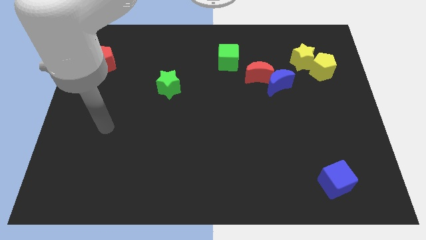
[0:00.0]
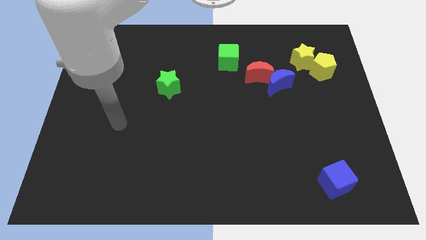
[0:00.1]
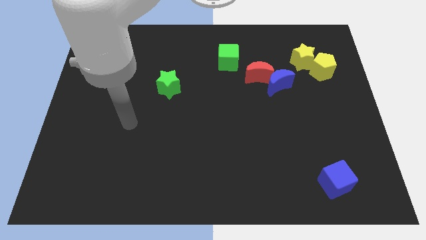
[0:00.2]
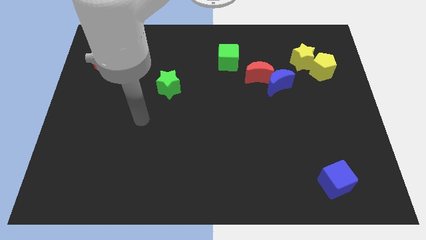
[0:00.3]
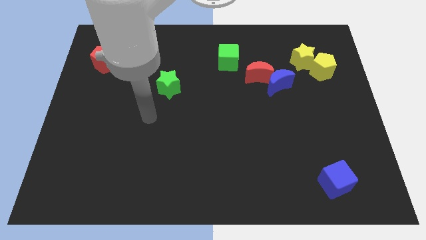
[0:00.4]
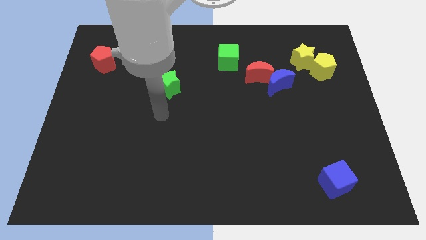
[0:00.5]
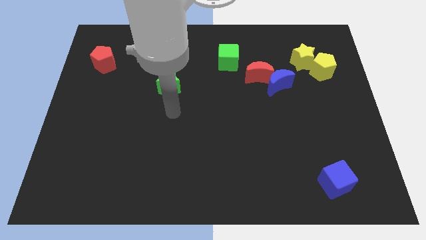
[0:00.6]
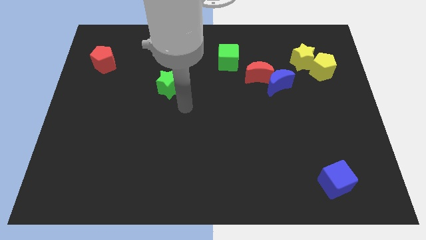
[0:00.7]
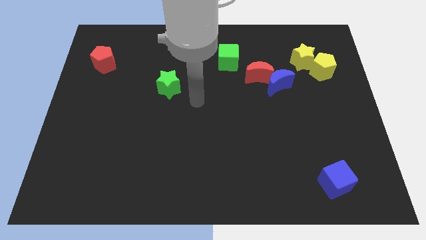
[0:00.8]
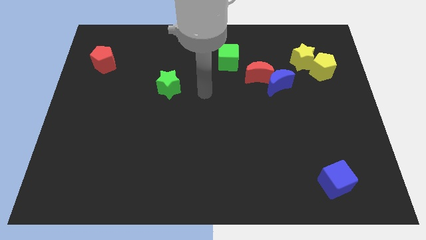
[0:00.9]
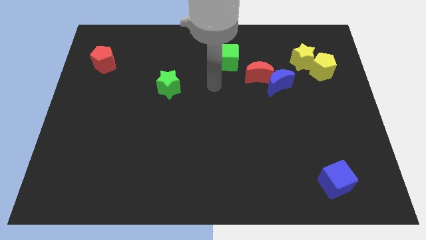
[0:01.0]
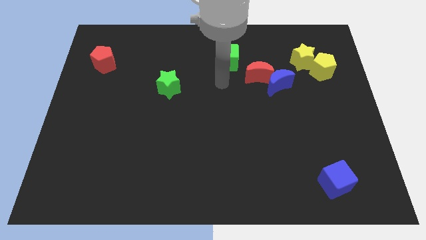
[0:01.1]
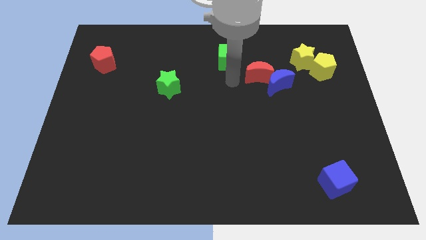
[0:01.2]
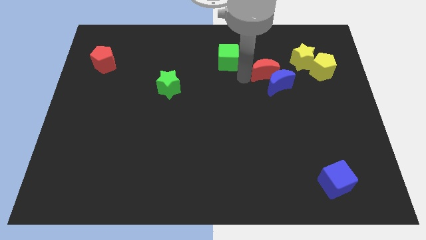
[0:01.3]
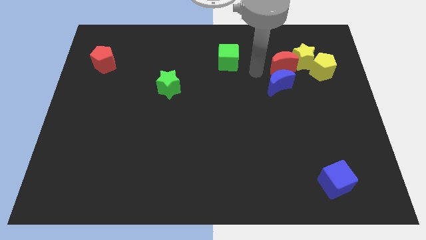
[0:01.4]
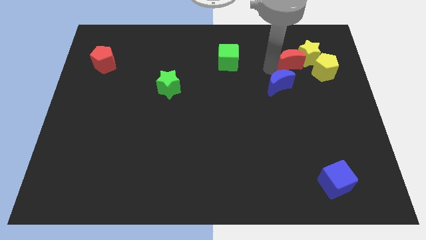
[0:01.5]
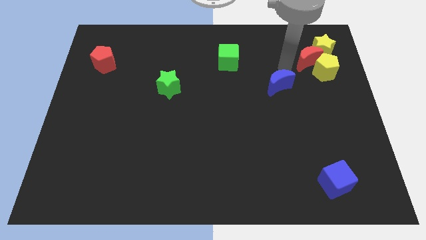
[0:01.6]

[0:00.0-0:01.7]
pull the blue moon apart from the red moon

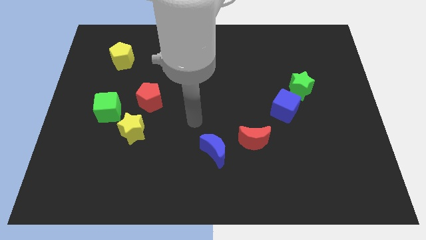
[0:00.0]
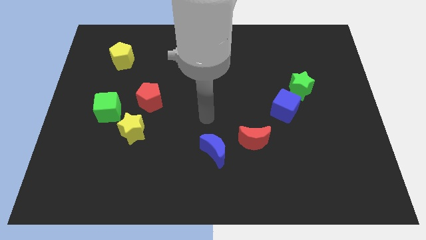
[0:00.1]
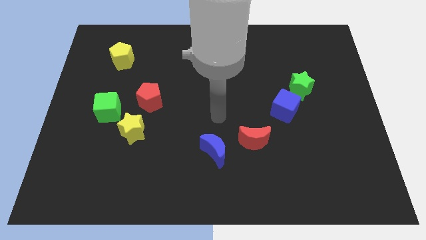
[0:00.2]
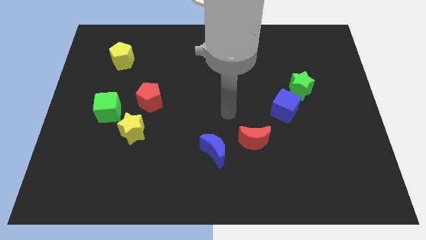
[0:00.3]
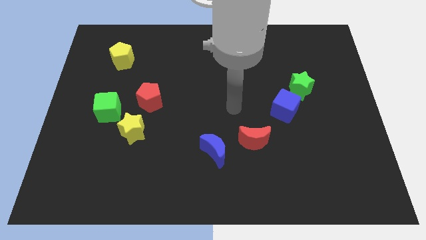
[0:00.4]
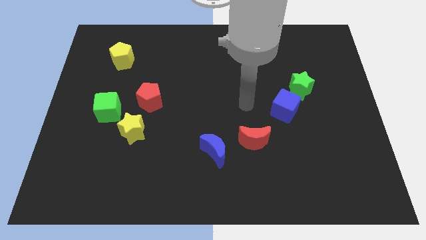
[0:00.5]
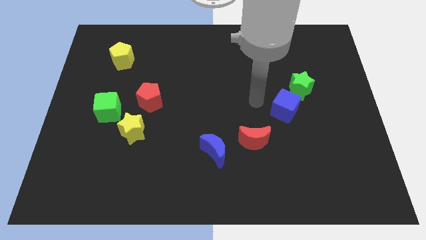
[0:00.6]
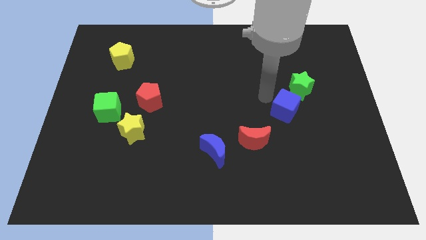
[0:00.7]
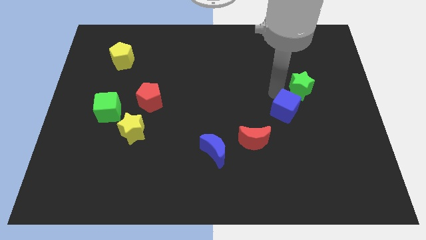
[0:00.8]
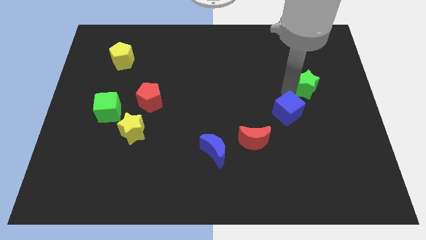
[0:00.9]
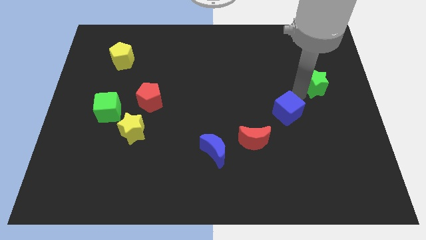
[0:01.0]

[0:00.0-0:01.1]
move the blue cube away from the green star

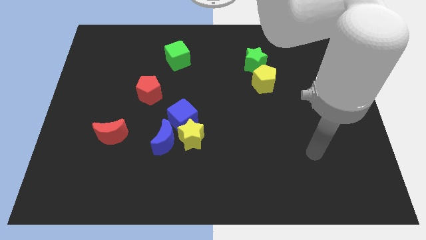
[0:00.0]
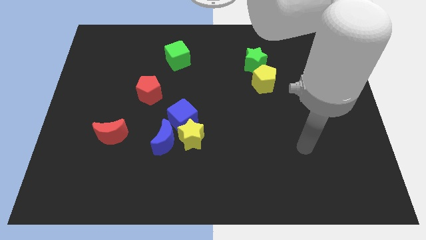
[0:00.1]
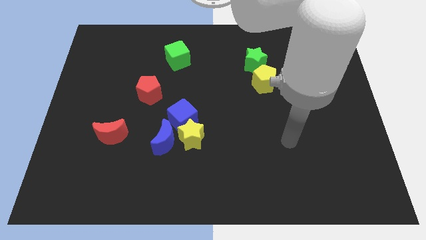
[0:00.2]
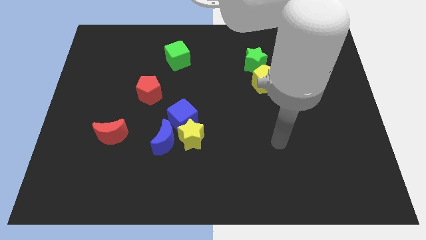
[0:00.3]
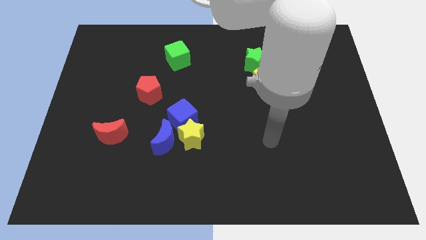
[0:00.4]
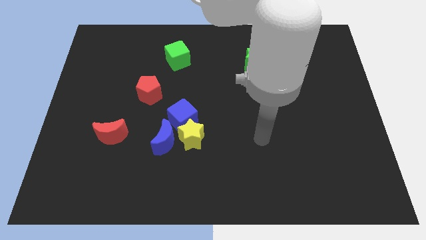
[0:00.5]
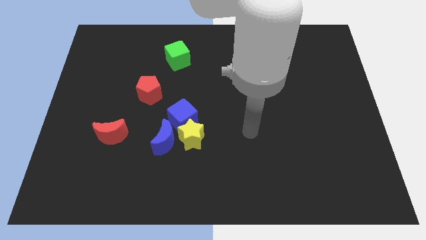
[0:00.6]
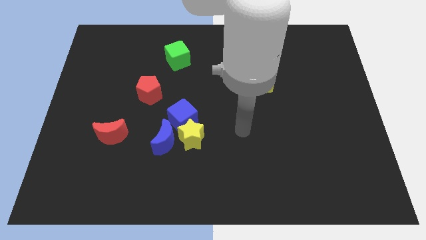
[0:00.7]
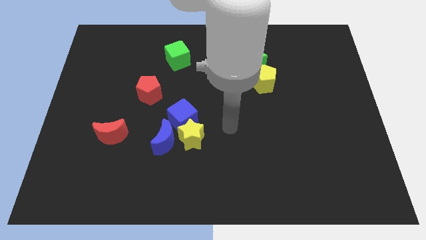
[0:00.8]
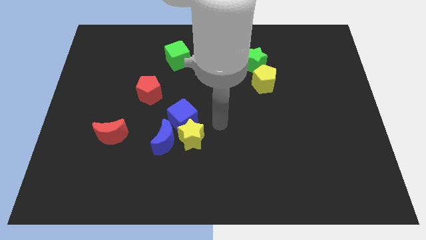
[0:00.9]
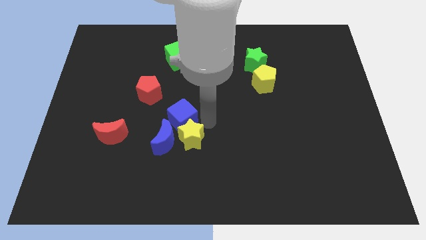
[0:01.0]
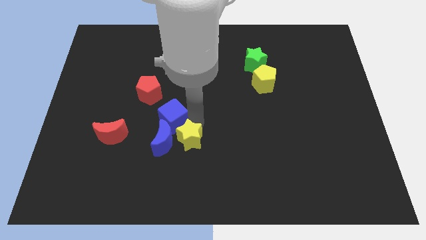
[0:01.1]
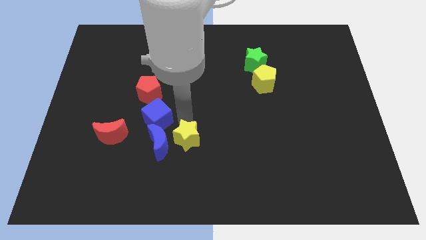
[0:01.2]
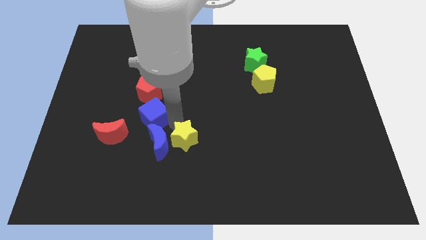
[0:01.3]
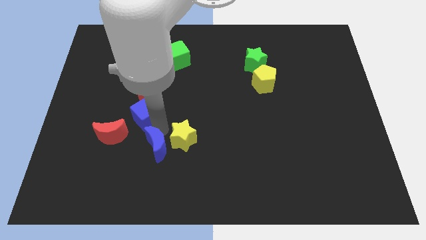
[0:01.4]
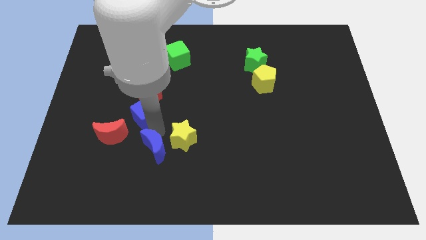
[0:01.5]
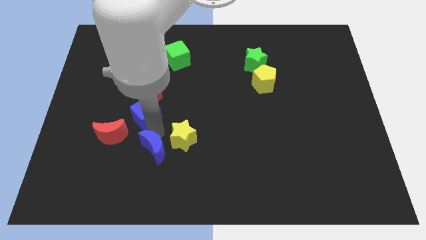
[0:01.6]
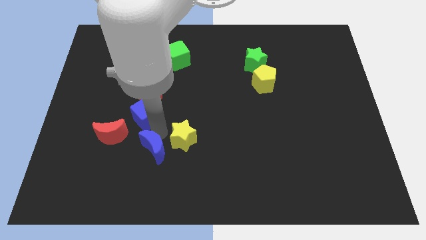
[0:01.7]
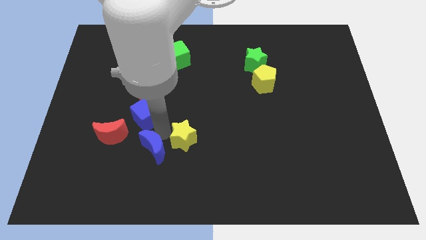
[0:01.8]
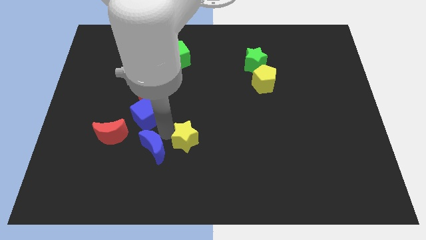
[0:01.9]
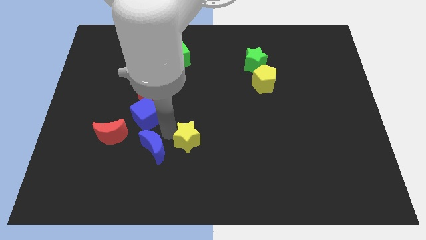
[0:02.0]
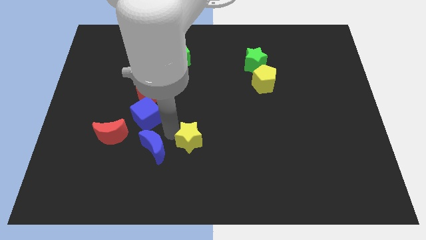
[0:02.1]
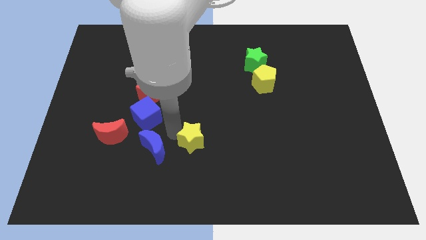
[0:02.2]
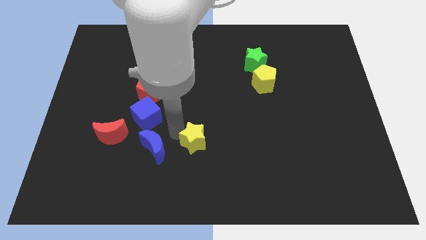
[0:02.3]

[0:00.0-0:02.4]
separate the yellow star from the blue moon and blue cube

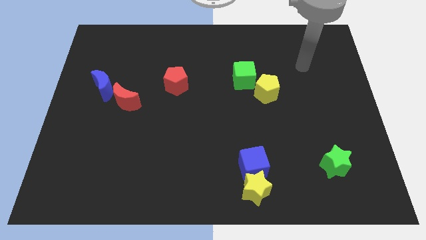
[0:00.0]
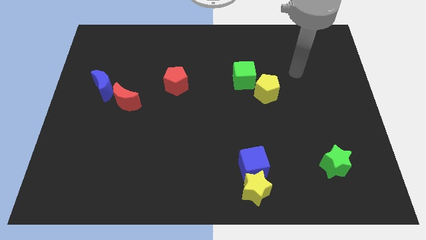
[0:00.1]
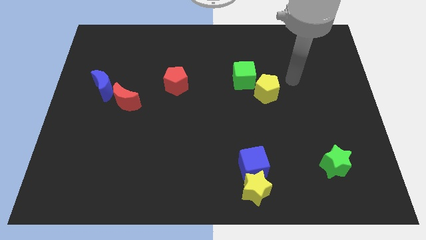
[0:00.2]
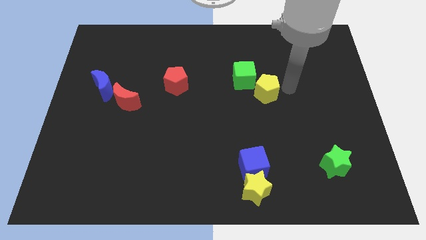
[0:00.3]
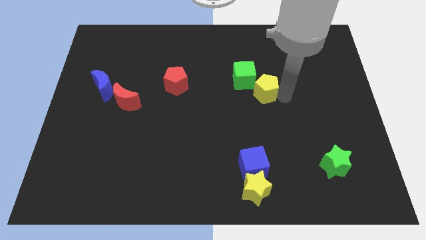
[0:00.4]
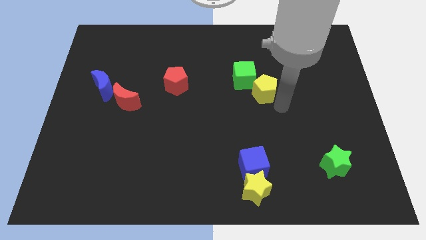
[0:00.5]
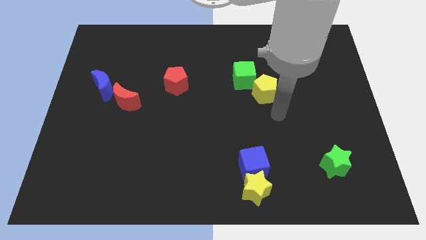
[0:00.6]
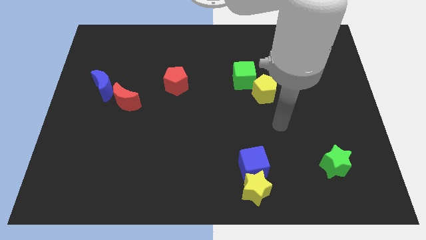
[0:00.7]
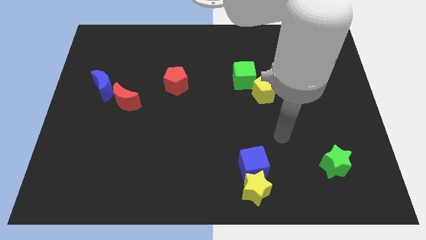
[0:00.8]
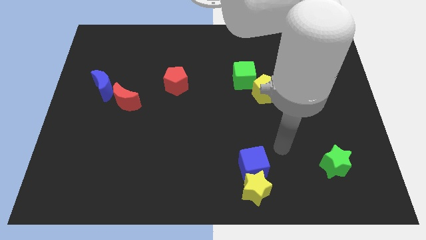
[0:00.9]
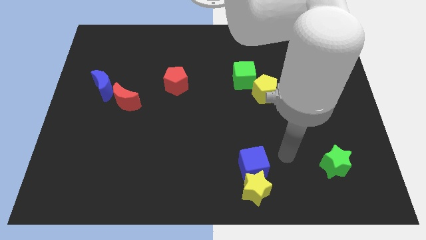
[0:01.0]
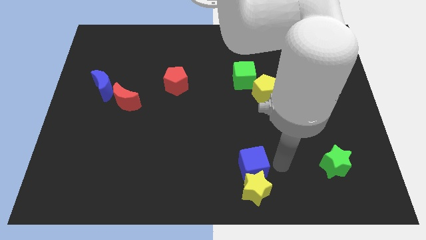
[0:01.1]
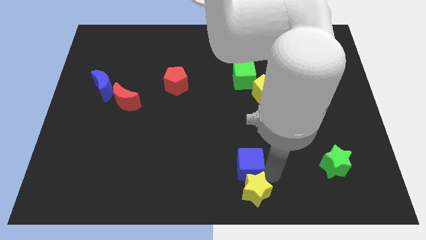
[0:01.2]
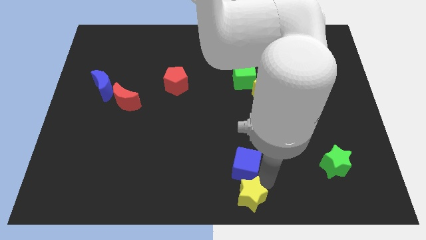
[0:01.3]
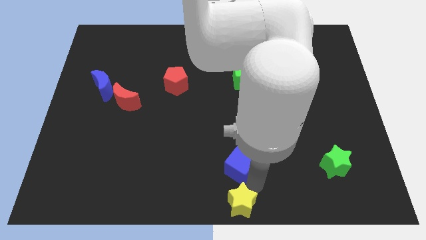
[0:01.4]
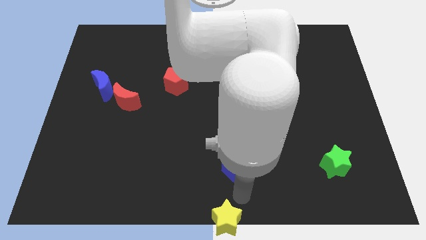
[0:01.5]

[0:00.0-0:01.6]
move the blue cube away from the yellow star

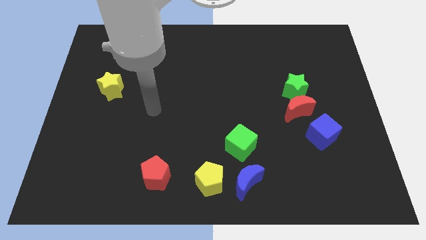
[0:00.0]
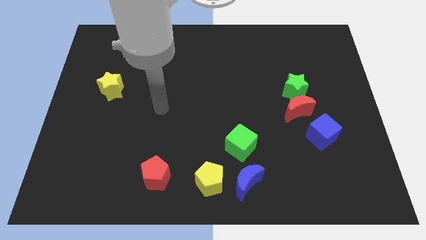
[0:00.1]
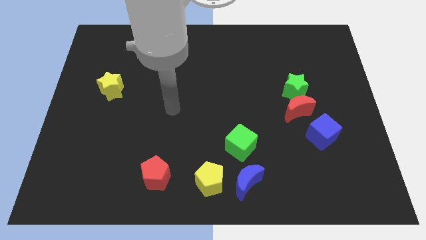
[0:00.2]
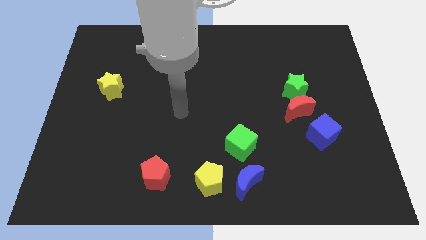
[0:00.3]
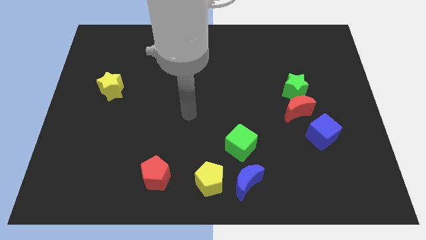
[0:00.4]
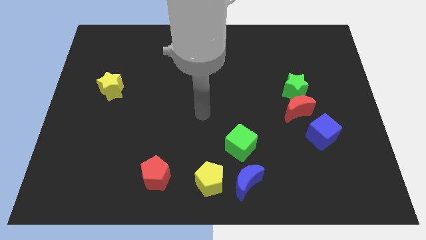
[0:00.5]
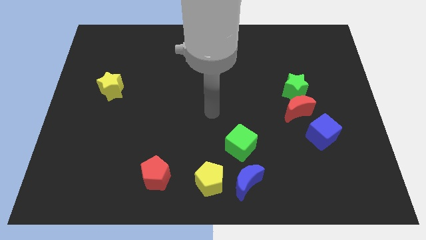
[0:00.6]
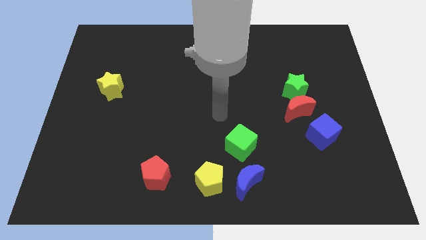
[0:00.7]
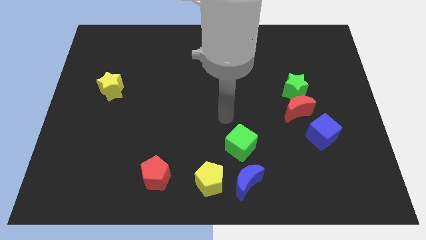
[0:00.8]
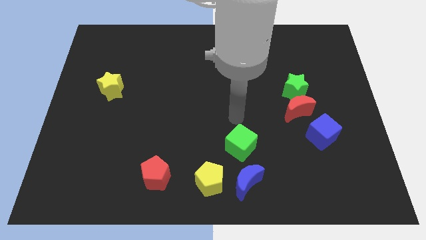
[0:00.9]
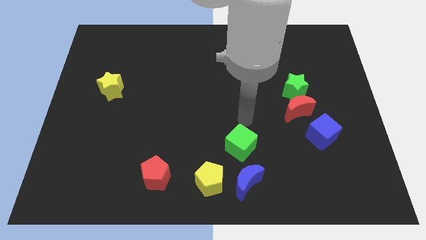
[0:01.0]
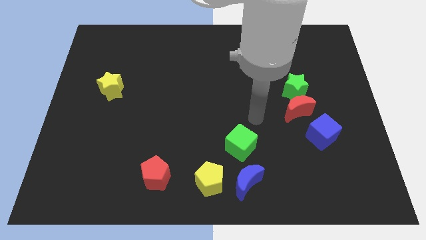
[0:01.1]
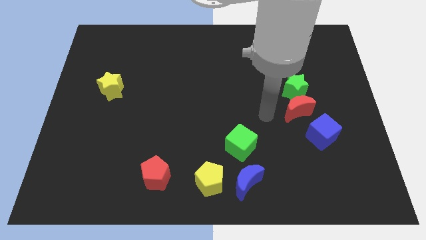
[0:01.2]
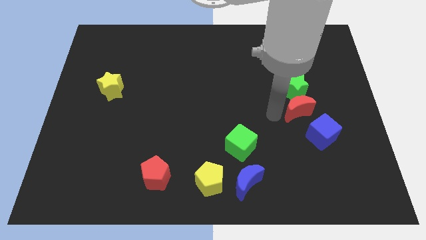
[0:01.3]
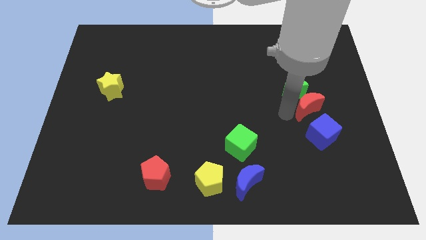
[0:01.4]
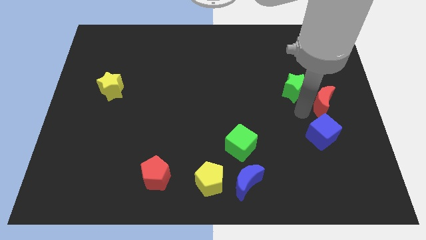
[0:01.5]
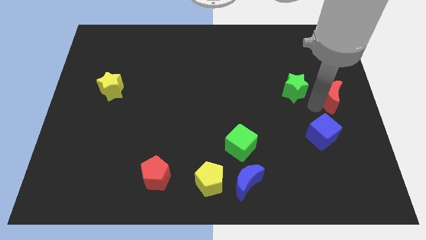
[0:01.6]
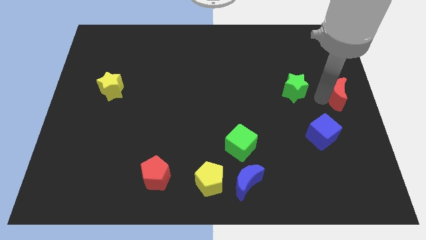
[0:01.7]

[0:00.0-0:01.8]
pull the green star apart from the red moon

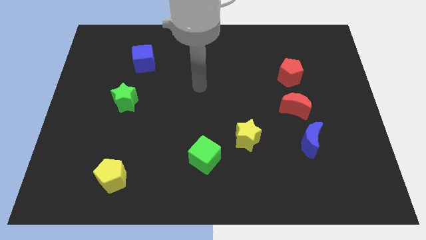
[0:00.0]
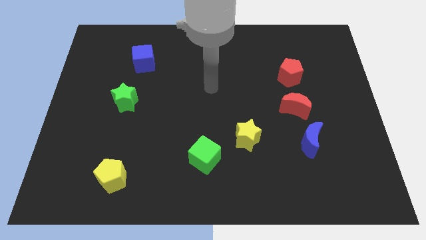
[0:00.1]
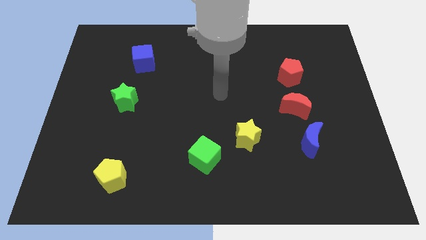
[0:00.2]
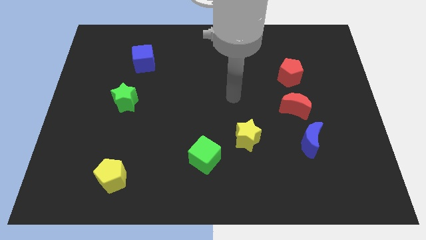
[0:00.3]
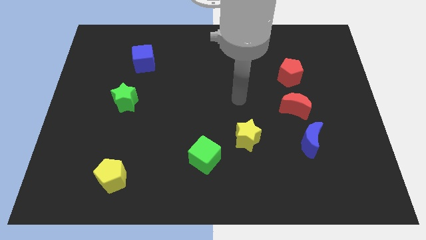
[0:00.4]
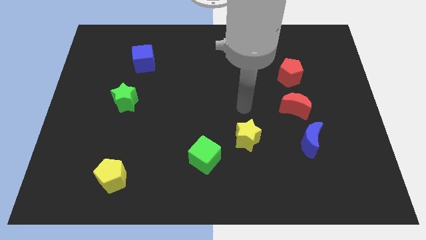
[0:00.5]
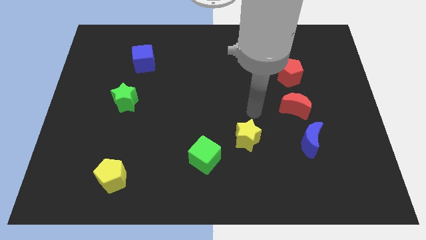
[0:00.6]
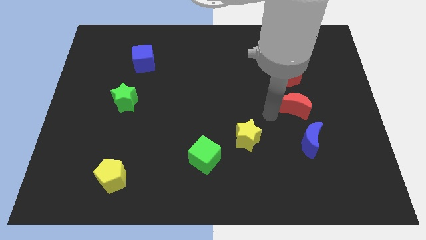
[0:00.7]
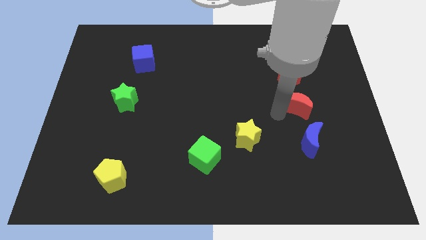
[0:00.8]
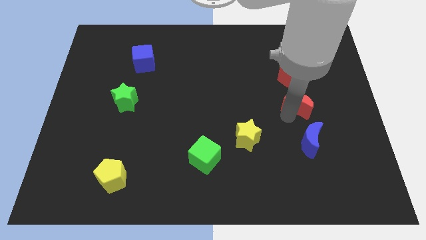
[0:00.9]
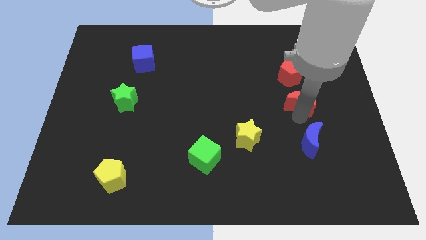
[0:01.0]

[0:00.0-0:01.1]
move the blue moon away from the red moon
